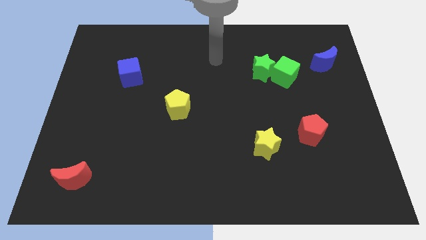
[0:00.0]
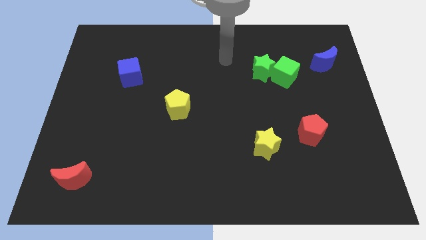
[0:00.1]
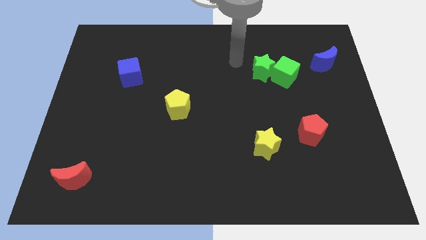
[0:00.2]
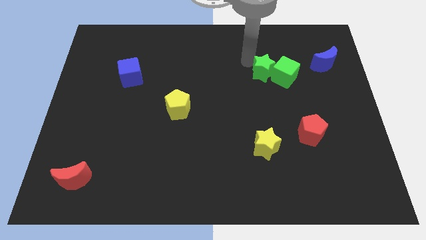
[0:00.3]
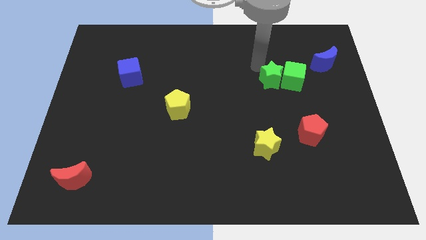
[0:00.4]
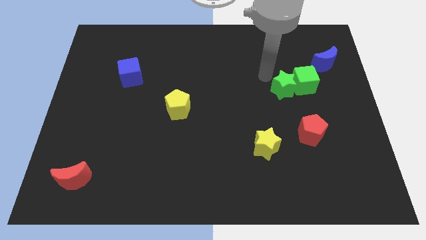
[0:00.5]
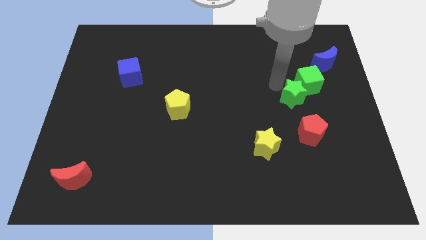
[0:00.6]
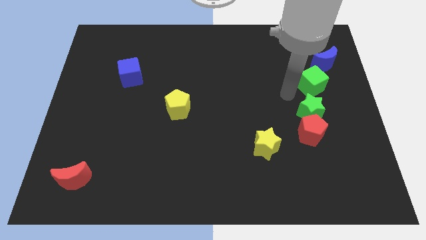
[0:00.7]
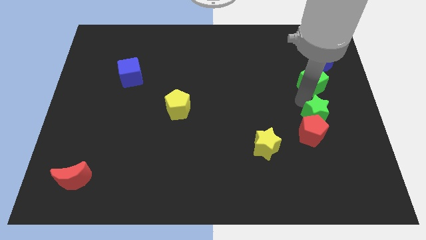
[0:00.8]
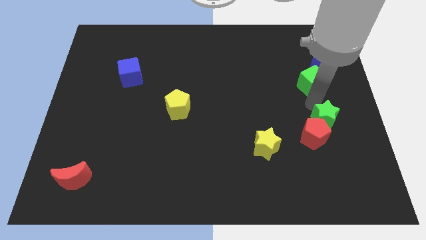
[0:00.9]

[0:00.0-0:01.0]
separate the green cube from the green star

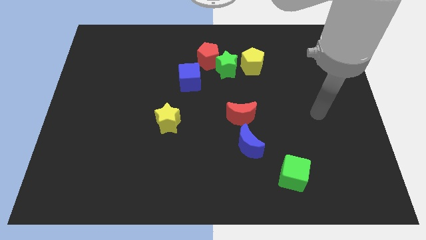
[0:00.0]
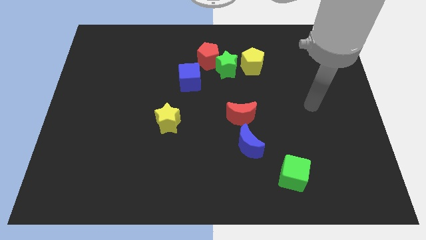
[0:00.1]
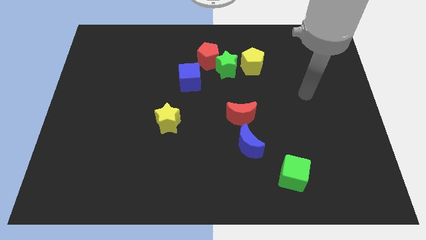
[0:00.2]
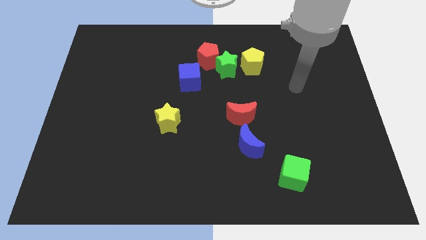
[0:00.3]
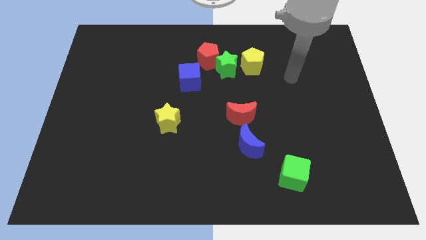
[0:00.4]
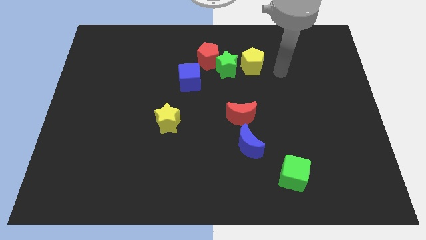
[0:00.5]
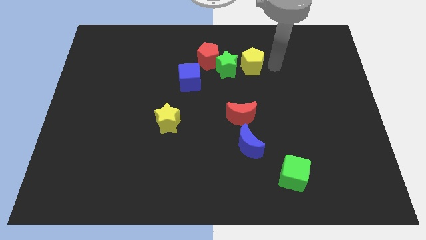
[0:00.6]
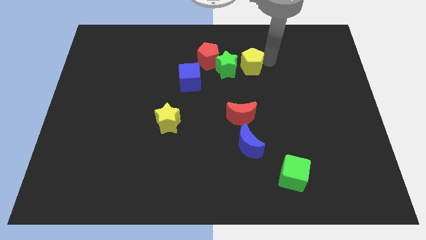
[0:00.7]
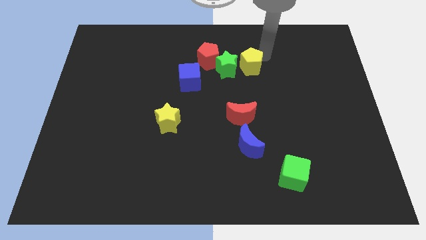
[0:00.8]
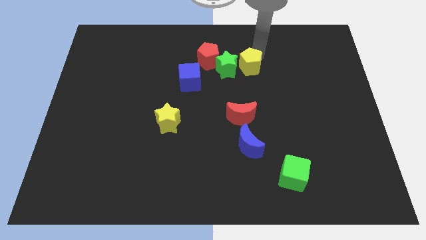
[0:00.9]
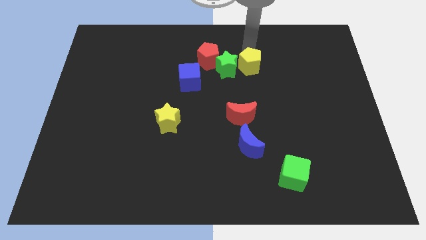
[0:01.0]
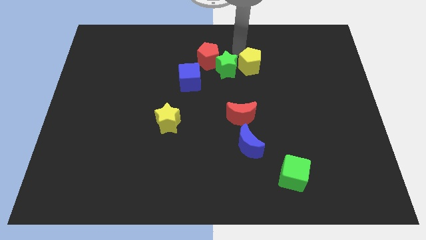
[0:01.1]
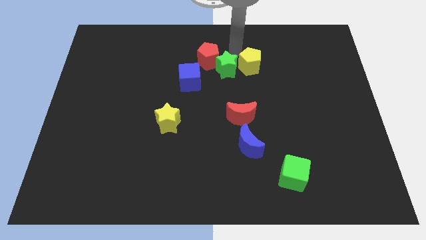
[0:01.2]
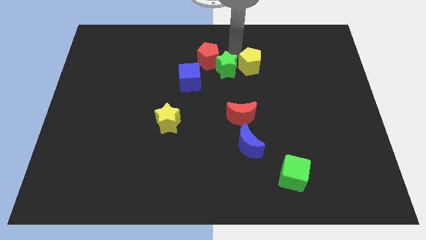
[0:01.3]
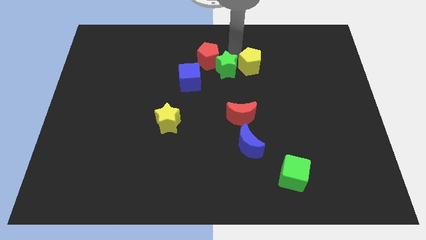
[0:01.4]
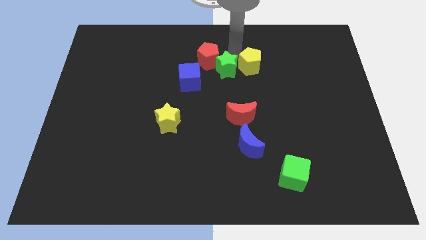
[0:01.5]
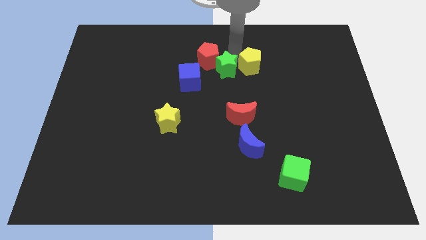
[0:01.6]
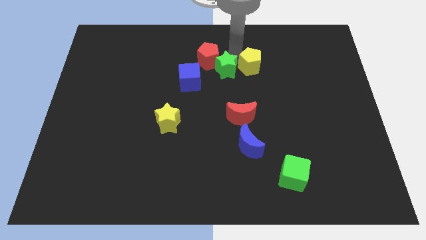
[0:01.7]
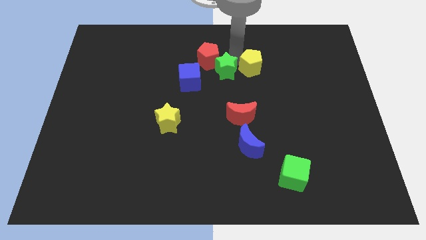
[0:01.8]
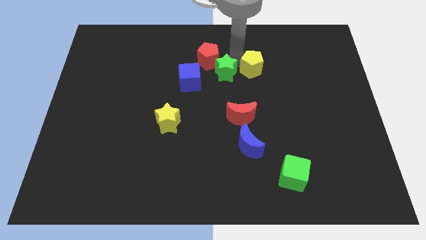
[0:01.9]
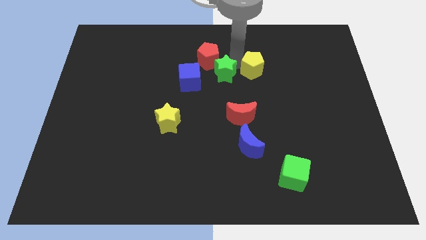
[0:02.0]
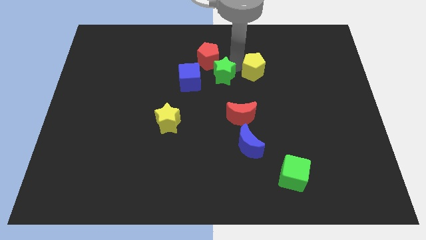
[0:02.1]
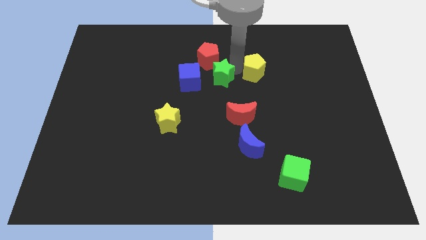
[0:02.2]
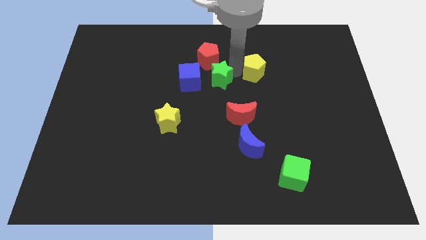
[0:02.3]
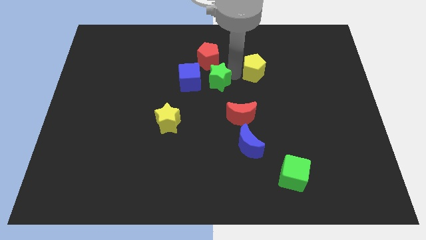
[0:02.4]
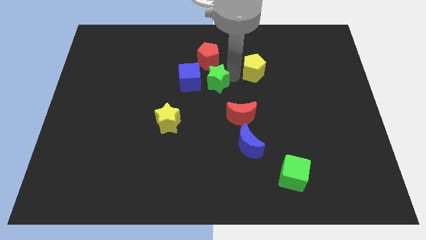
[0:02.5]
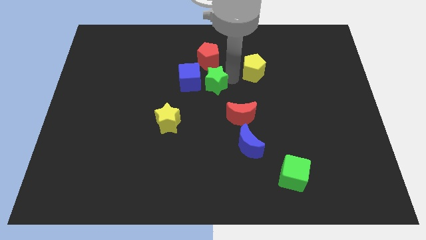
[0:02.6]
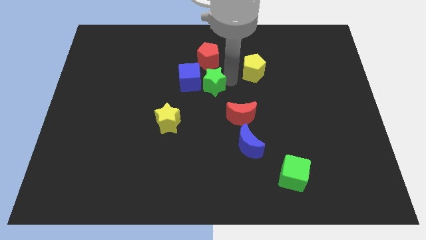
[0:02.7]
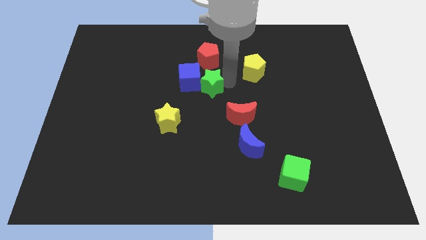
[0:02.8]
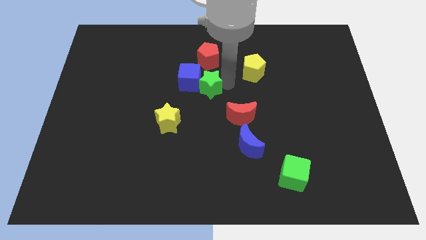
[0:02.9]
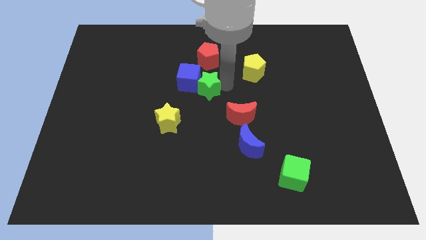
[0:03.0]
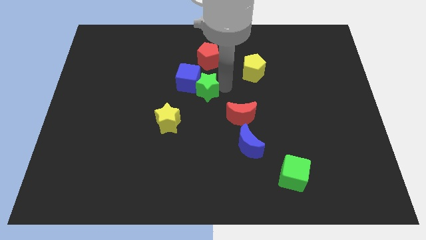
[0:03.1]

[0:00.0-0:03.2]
separate the green star from the red pentagon and yellow pentagon

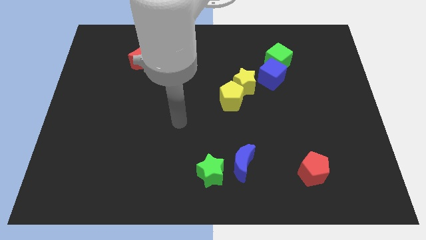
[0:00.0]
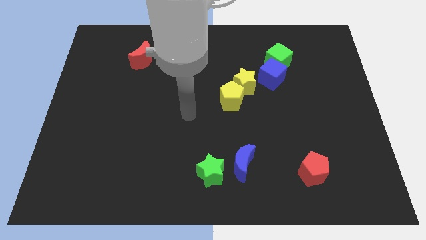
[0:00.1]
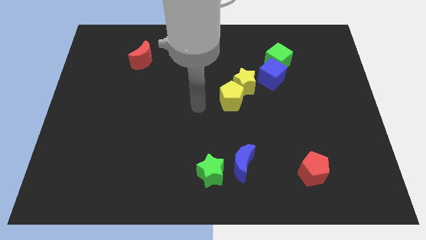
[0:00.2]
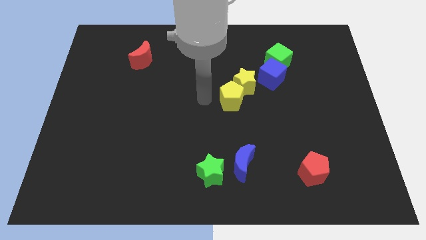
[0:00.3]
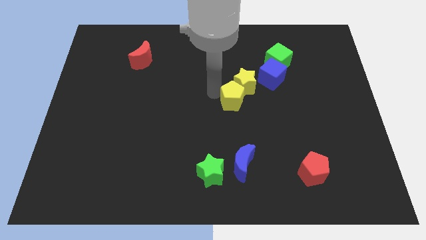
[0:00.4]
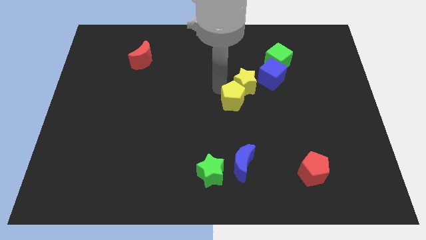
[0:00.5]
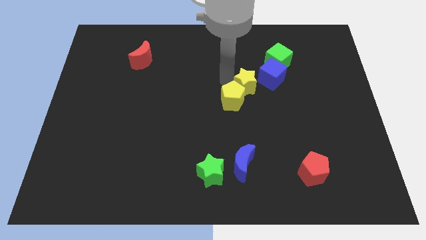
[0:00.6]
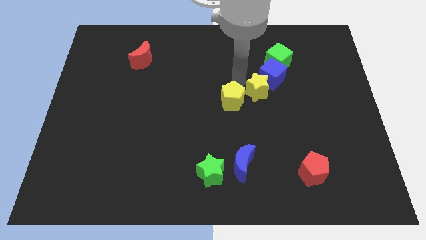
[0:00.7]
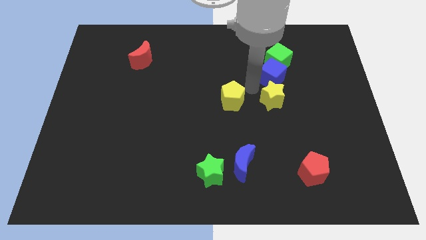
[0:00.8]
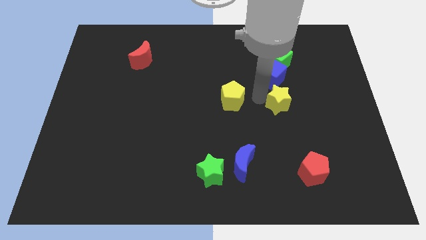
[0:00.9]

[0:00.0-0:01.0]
separate the yellow pentagon from the yellow star

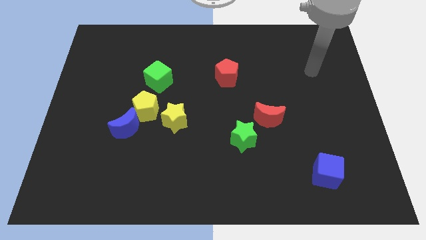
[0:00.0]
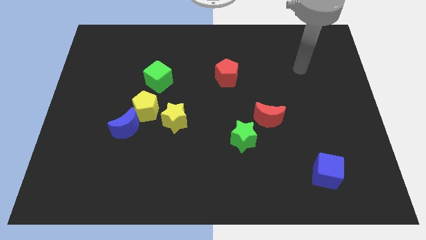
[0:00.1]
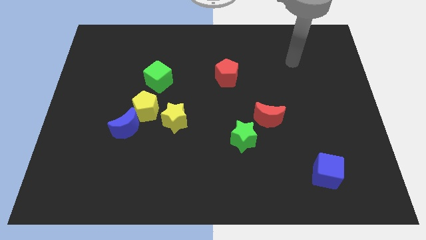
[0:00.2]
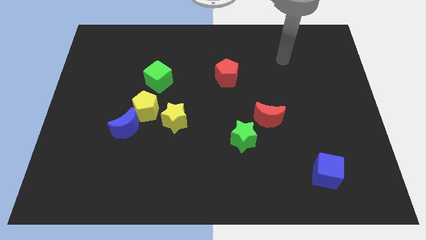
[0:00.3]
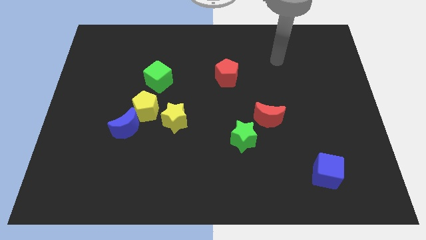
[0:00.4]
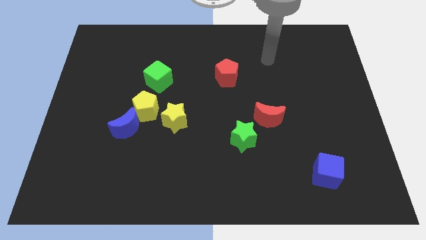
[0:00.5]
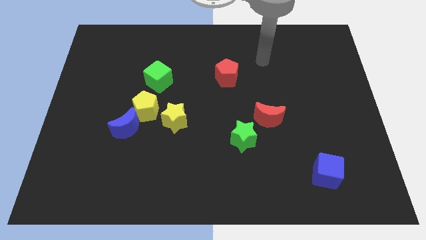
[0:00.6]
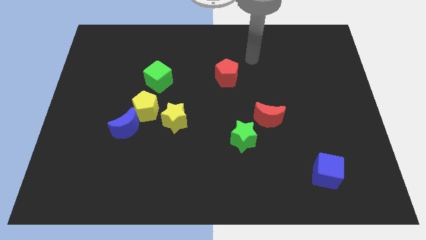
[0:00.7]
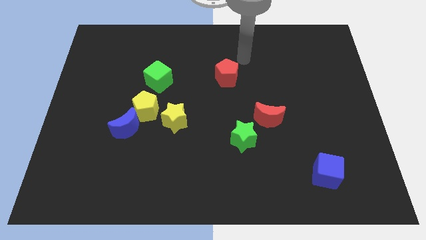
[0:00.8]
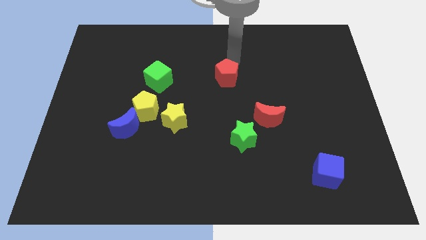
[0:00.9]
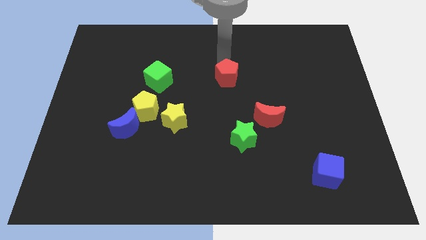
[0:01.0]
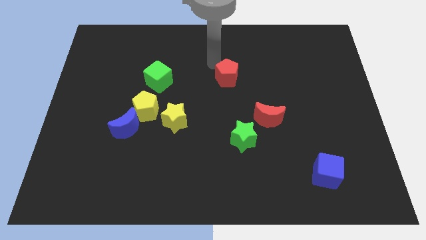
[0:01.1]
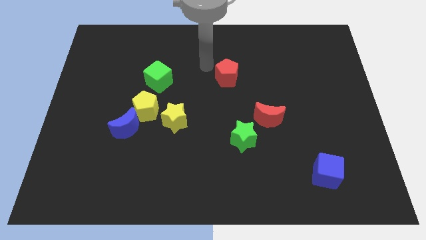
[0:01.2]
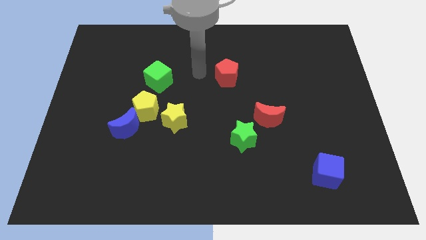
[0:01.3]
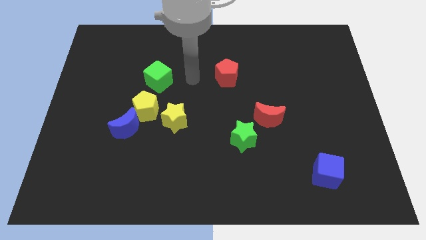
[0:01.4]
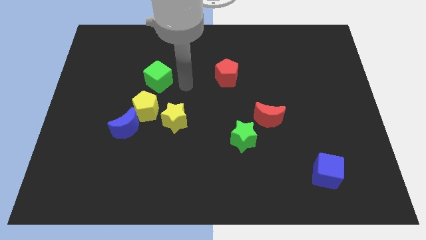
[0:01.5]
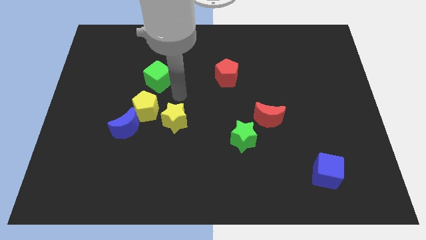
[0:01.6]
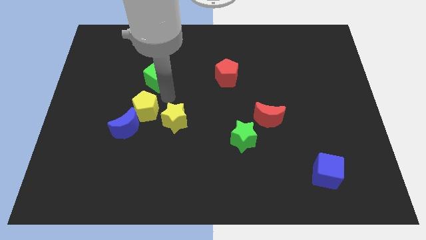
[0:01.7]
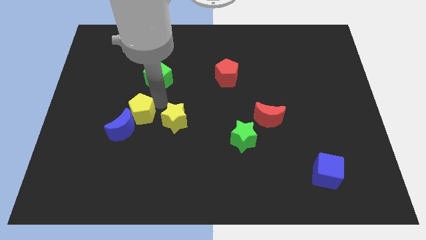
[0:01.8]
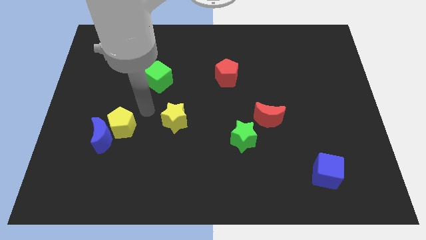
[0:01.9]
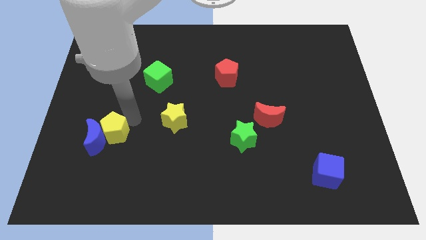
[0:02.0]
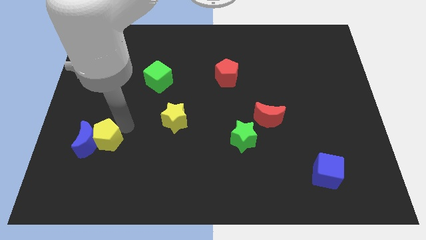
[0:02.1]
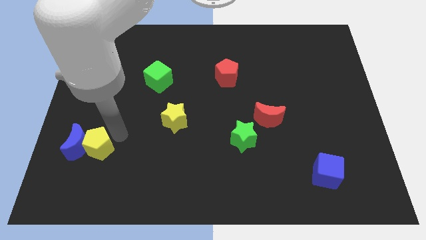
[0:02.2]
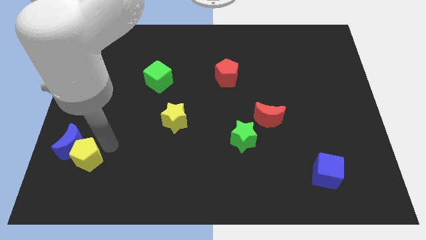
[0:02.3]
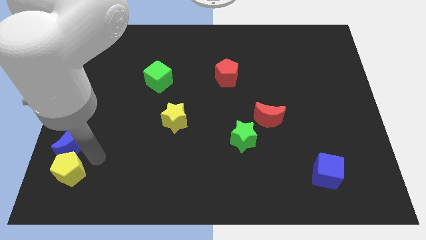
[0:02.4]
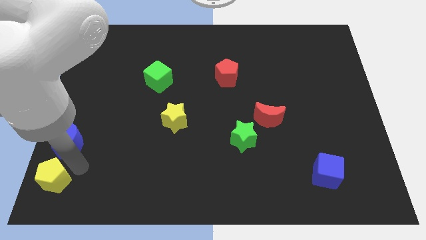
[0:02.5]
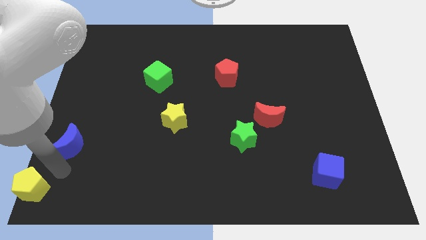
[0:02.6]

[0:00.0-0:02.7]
separate the blue moon from the yellow pentagon

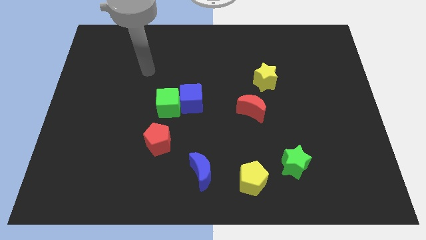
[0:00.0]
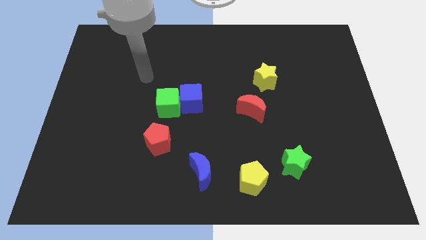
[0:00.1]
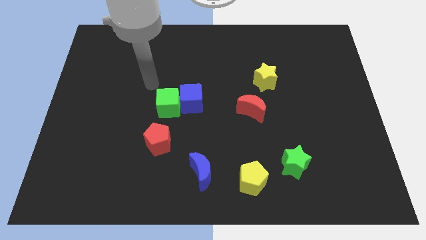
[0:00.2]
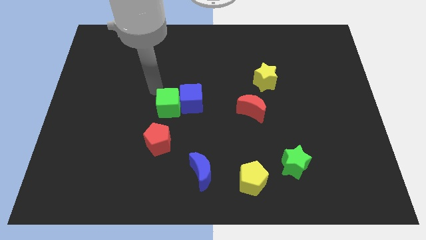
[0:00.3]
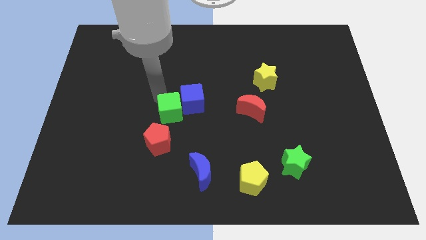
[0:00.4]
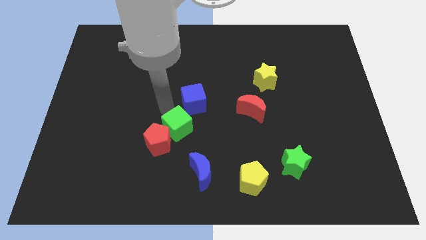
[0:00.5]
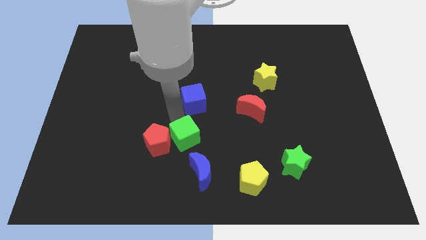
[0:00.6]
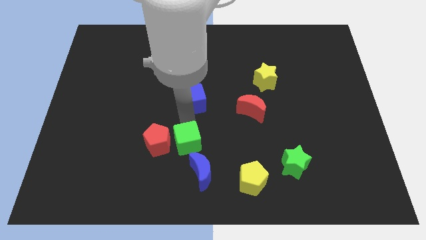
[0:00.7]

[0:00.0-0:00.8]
pull the blue cube apart from the green cube

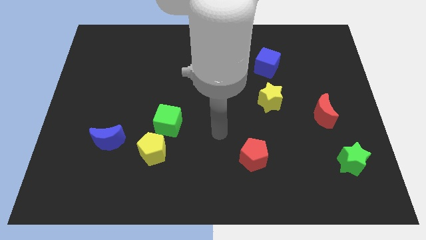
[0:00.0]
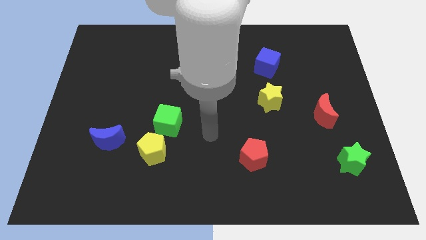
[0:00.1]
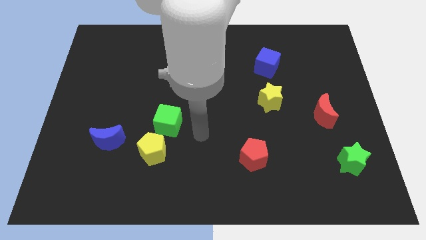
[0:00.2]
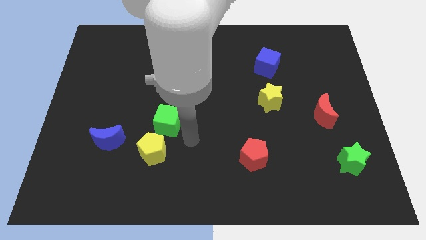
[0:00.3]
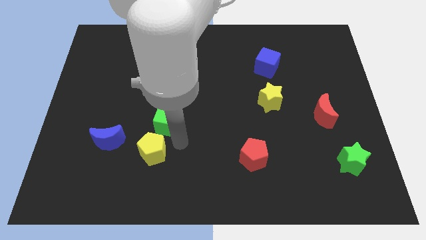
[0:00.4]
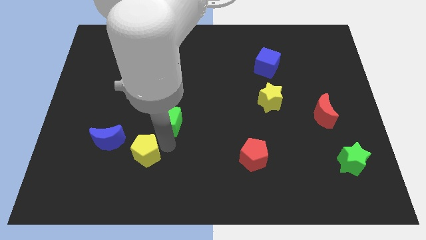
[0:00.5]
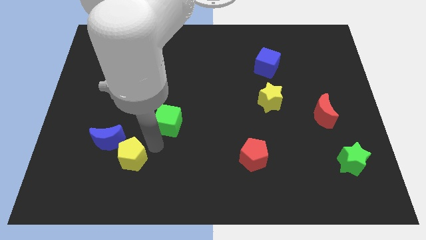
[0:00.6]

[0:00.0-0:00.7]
pull the green cube apart from the yellow pentagon
